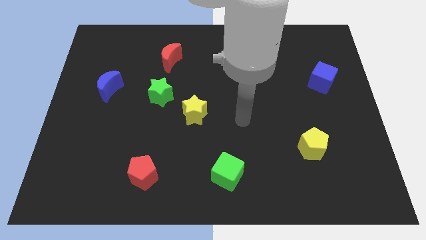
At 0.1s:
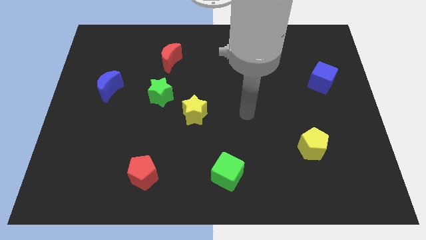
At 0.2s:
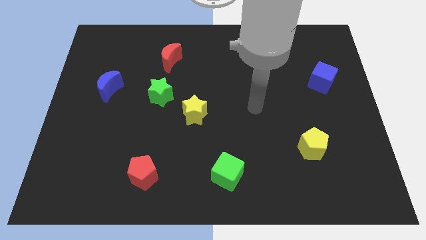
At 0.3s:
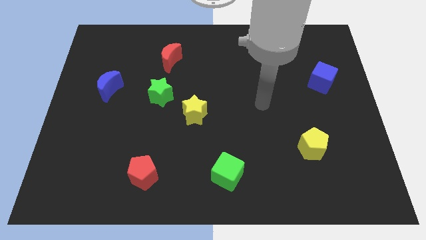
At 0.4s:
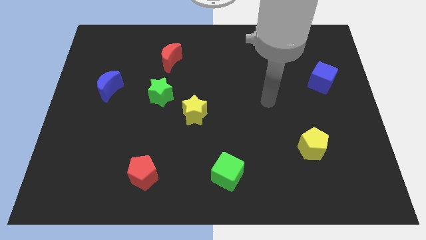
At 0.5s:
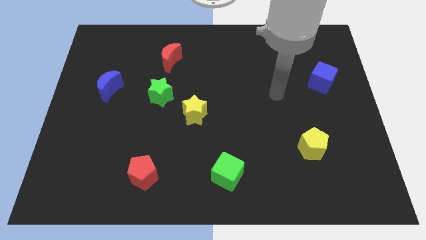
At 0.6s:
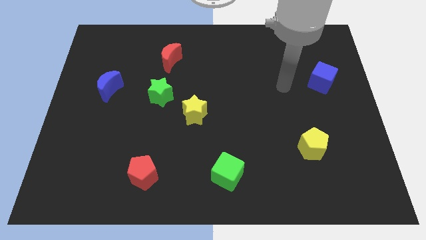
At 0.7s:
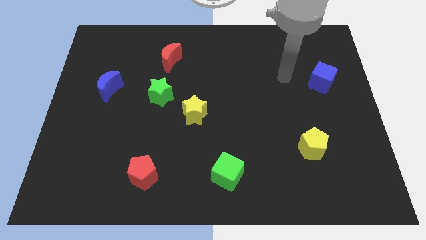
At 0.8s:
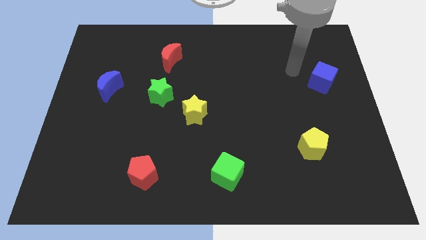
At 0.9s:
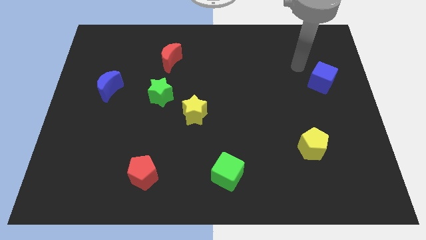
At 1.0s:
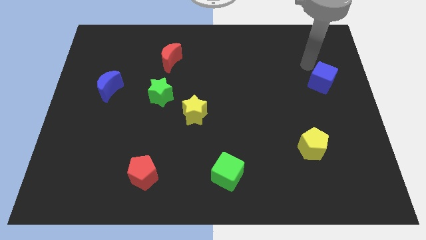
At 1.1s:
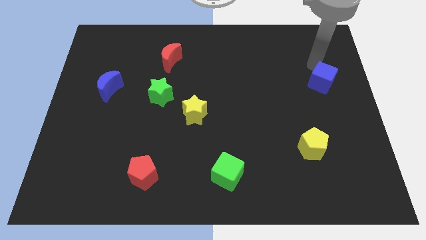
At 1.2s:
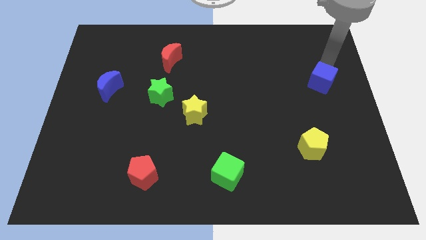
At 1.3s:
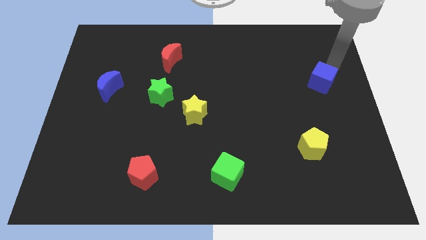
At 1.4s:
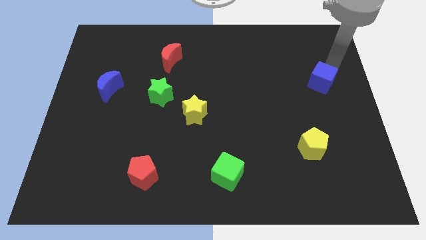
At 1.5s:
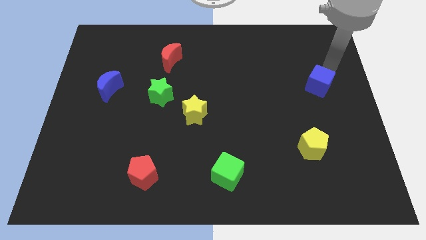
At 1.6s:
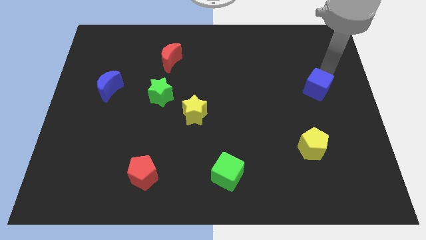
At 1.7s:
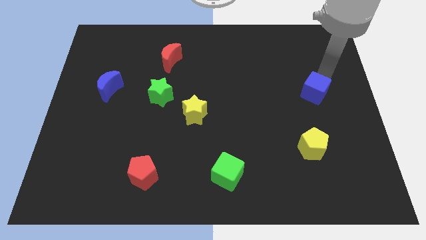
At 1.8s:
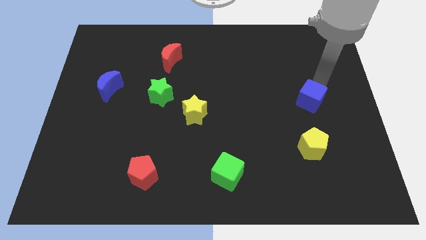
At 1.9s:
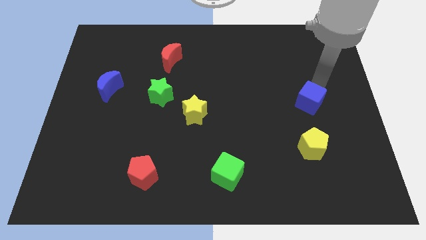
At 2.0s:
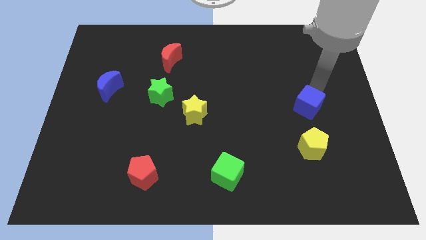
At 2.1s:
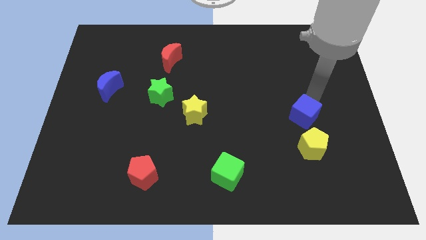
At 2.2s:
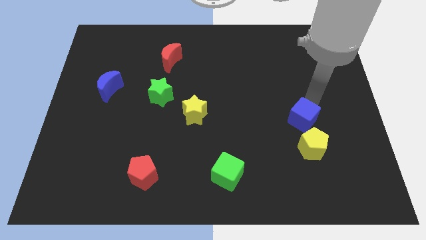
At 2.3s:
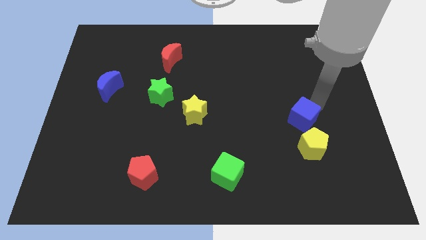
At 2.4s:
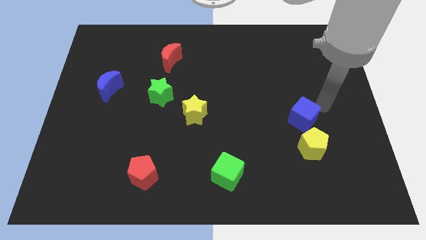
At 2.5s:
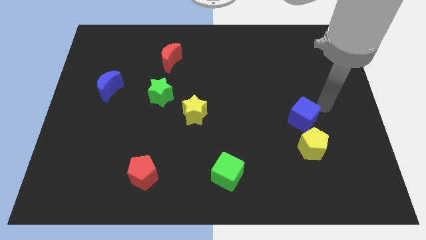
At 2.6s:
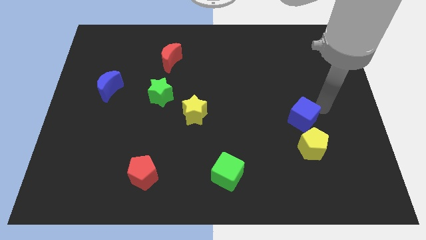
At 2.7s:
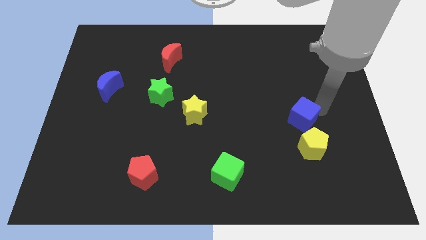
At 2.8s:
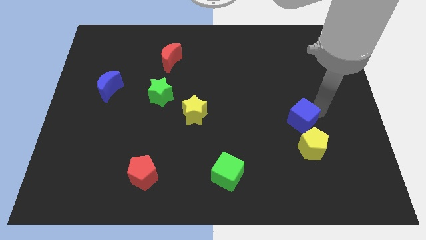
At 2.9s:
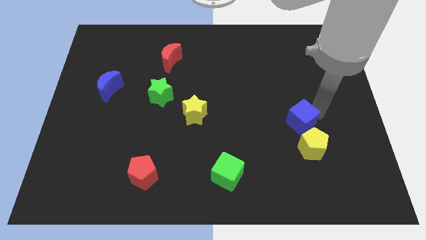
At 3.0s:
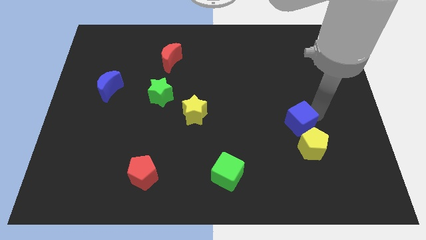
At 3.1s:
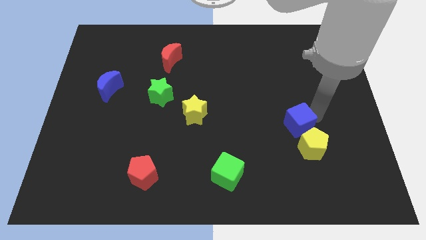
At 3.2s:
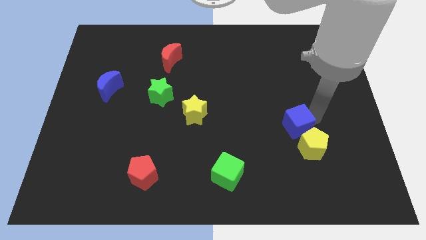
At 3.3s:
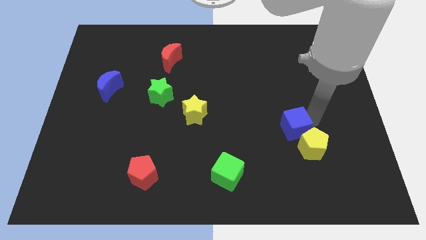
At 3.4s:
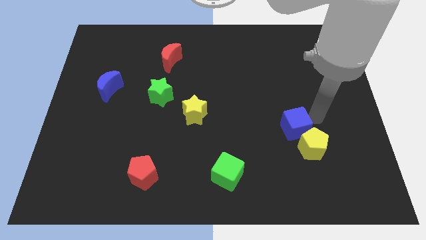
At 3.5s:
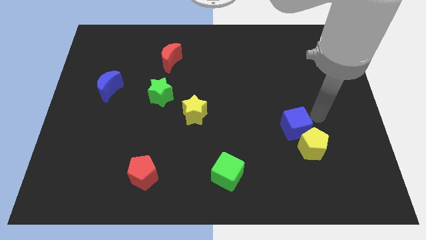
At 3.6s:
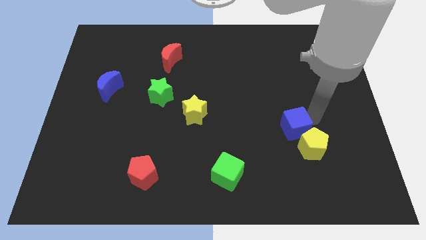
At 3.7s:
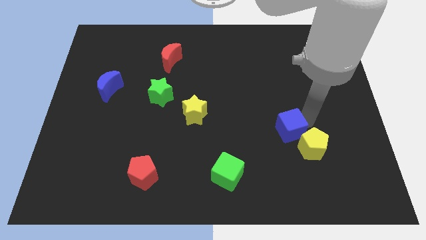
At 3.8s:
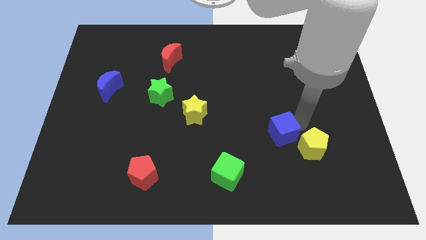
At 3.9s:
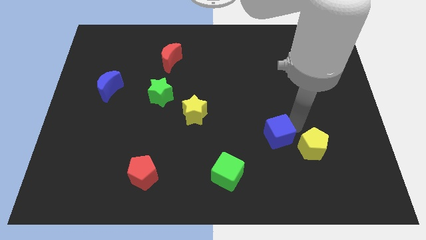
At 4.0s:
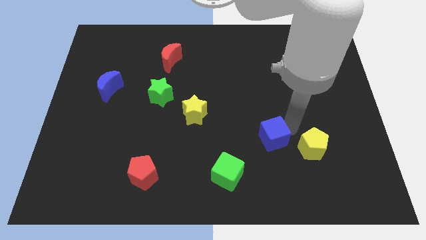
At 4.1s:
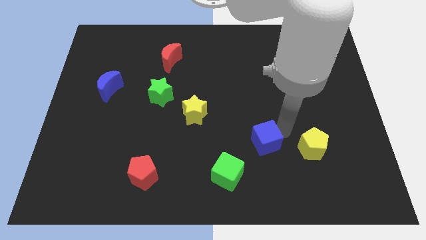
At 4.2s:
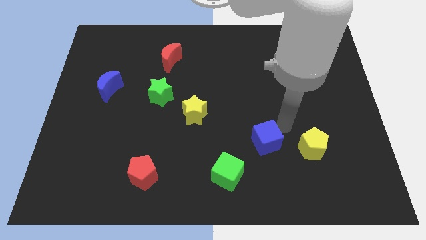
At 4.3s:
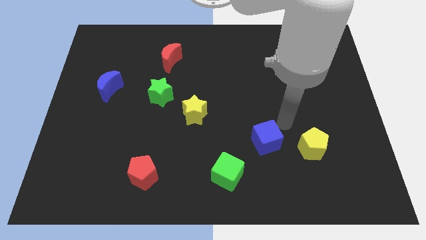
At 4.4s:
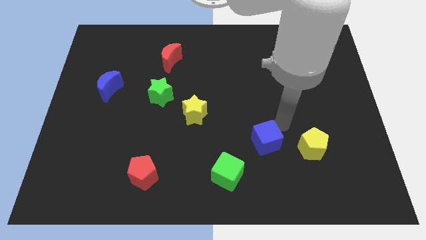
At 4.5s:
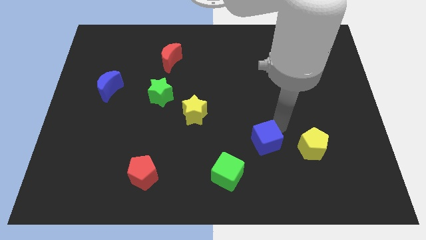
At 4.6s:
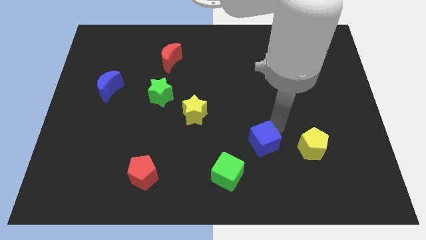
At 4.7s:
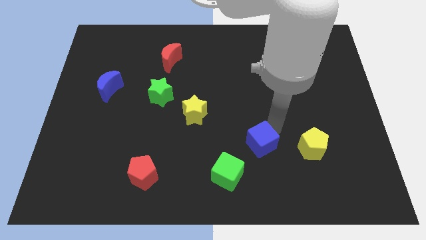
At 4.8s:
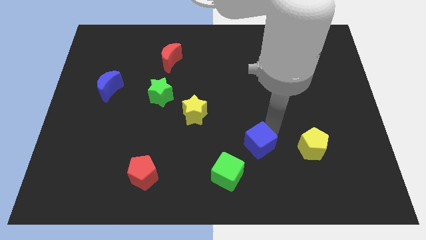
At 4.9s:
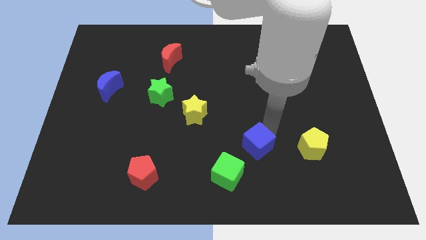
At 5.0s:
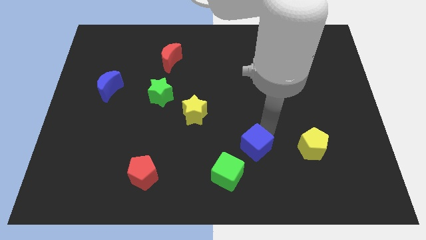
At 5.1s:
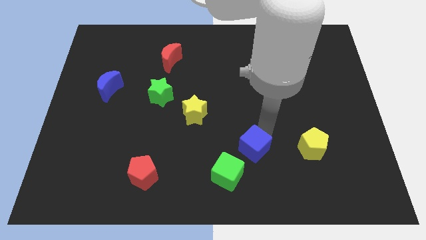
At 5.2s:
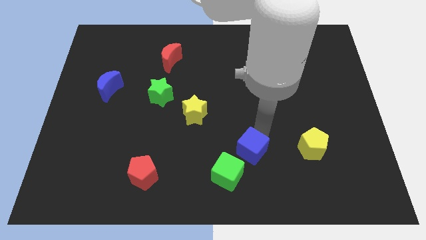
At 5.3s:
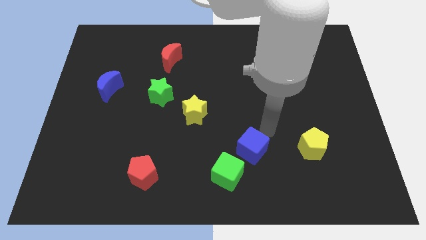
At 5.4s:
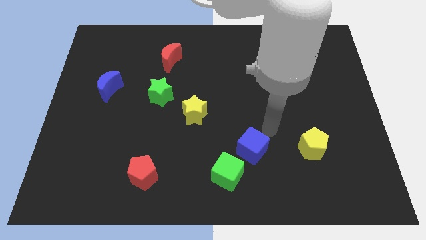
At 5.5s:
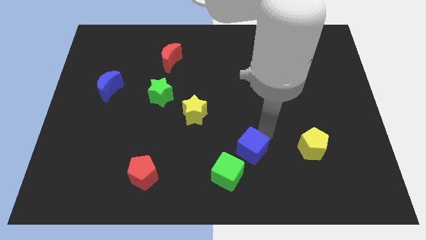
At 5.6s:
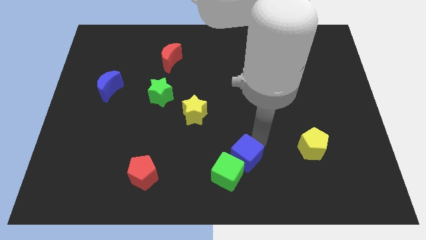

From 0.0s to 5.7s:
push the blue cube close to the green cube

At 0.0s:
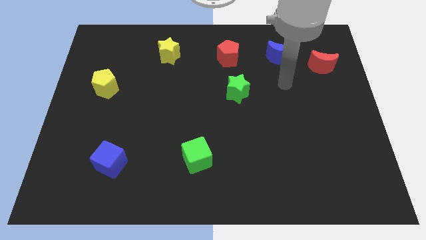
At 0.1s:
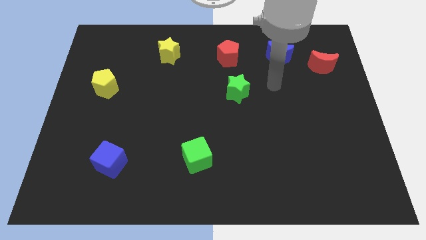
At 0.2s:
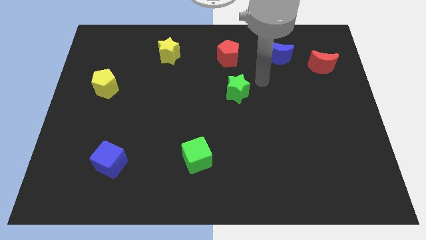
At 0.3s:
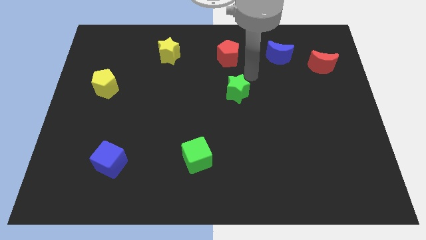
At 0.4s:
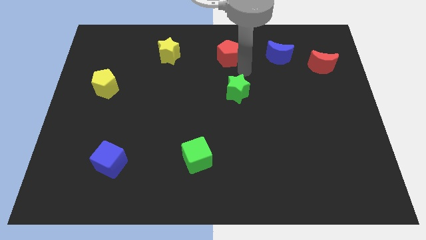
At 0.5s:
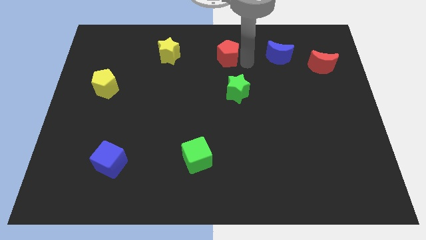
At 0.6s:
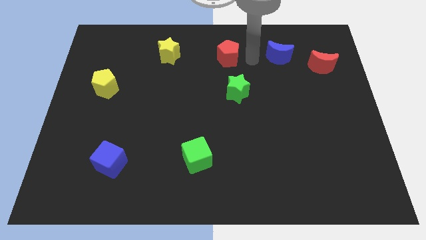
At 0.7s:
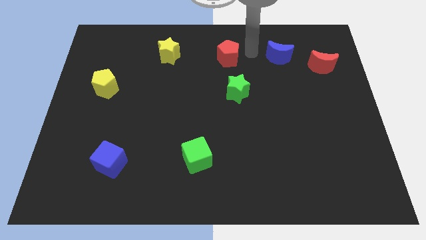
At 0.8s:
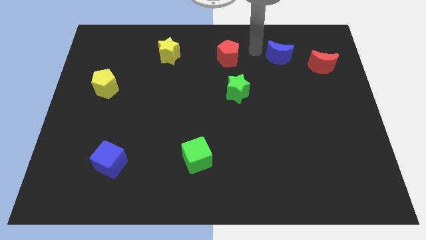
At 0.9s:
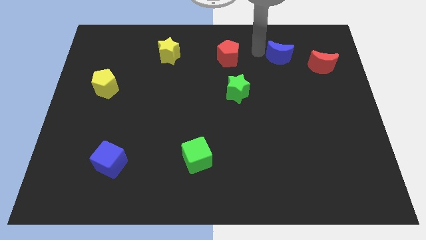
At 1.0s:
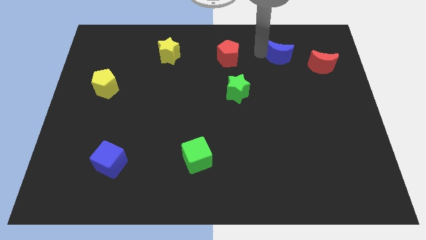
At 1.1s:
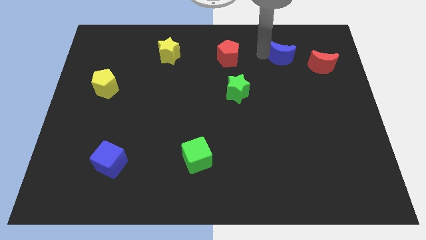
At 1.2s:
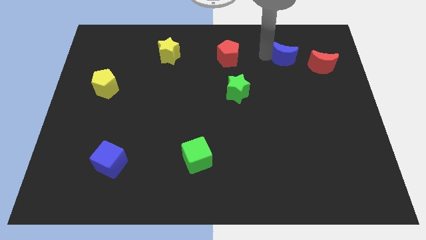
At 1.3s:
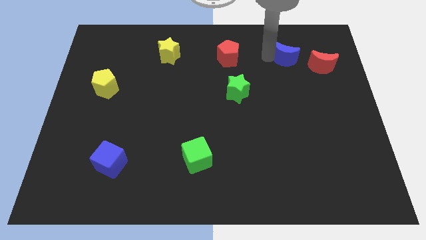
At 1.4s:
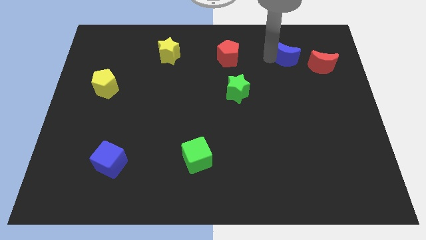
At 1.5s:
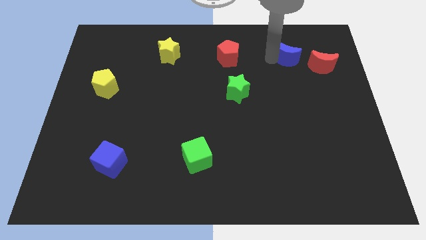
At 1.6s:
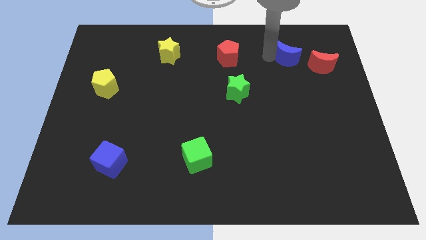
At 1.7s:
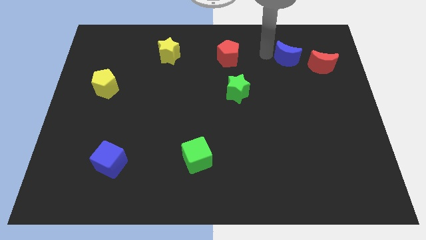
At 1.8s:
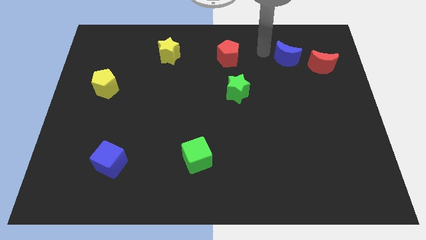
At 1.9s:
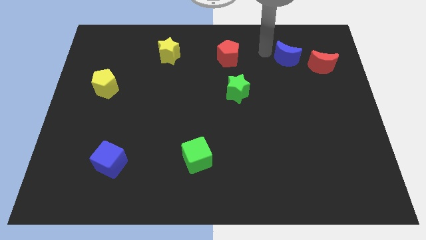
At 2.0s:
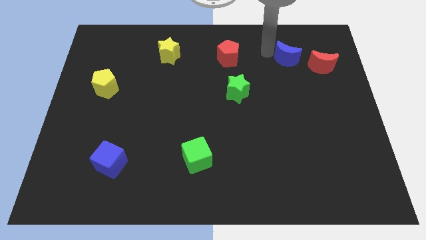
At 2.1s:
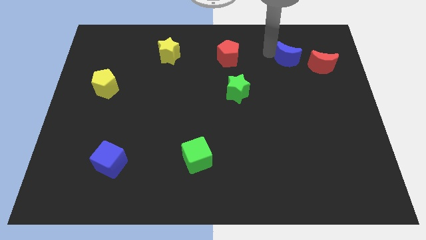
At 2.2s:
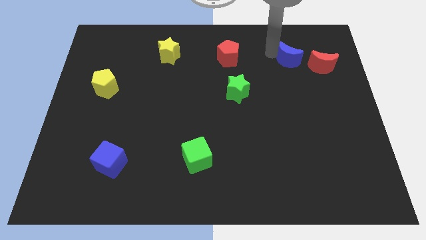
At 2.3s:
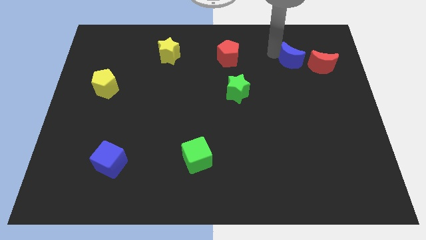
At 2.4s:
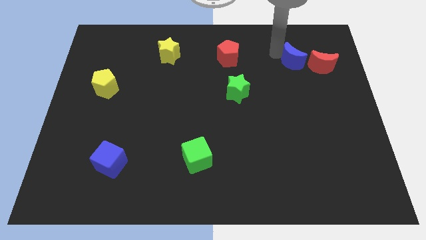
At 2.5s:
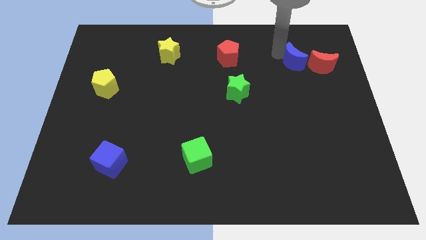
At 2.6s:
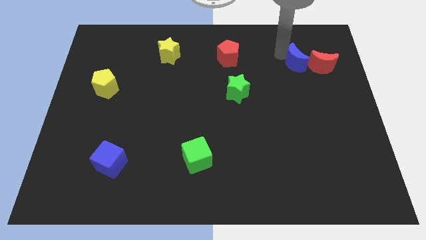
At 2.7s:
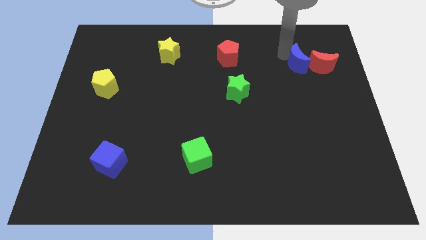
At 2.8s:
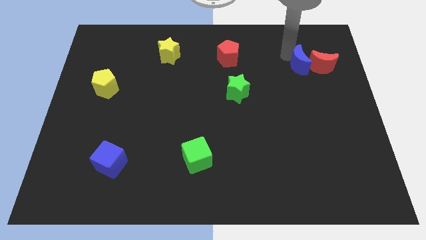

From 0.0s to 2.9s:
push the blue moon close to the red moon
